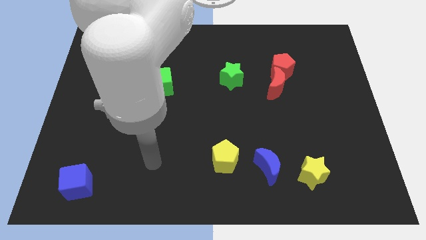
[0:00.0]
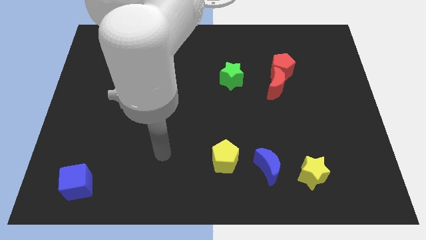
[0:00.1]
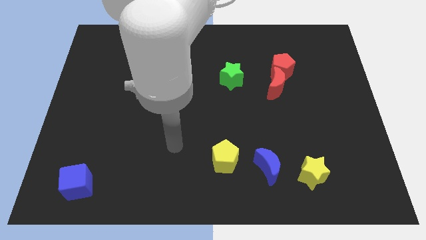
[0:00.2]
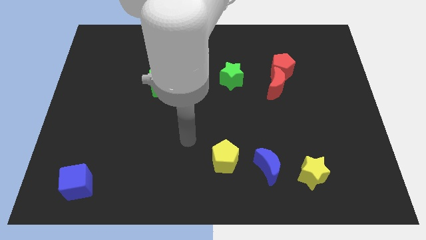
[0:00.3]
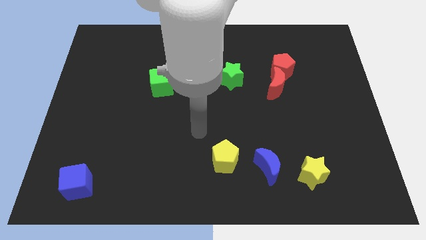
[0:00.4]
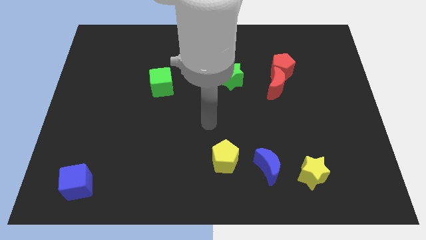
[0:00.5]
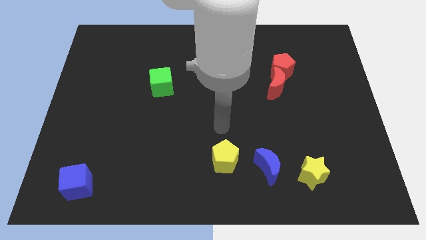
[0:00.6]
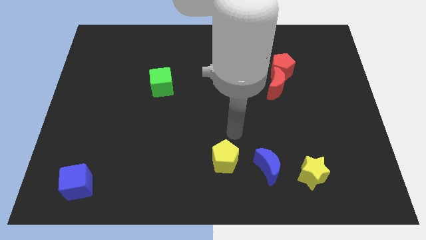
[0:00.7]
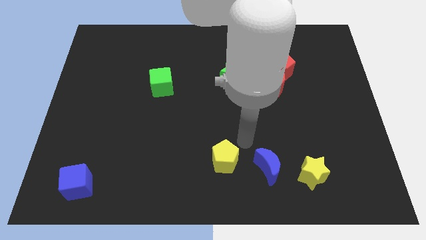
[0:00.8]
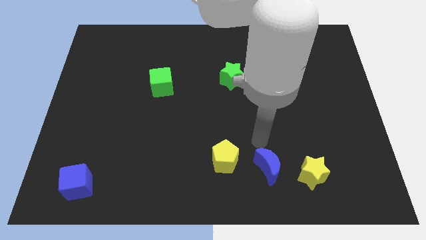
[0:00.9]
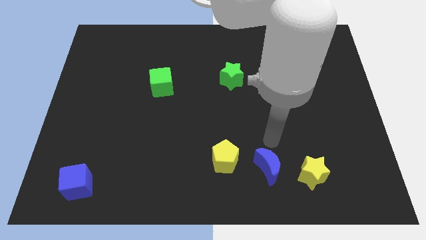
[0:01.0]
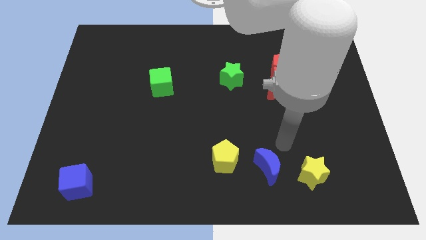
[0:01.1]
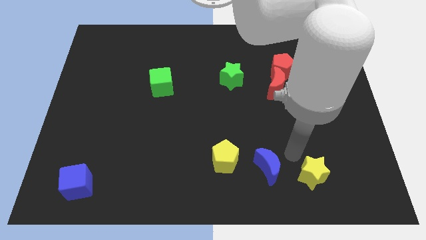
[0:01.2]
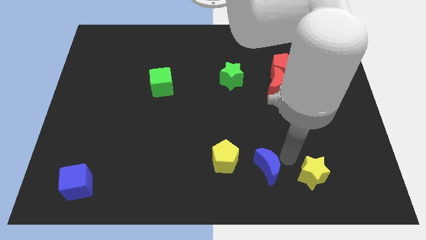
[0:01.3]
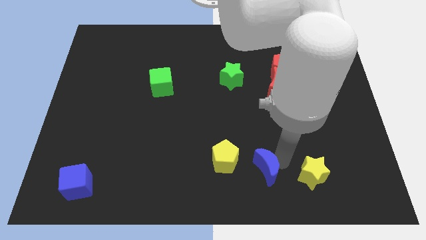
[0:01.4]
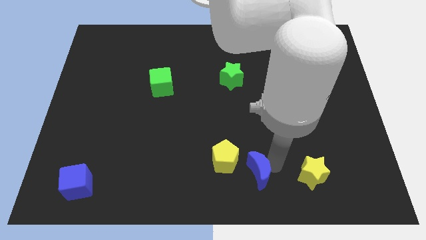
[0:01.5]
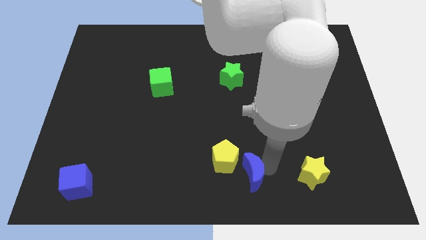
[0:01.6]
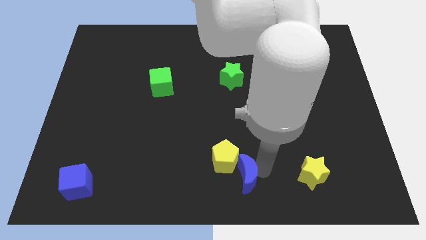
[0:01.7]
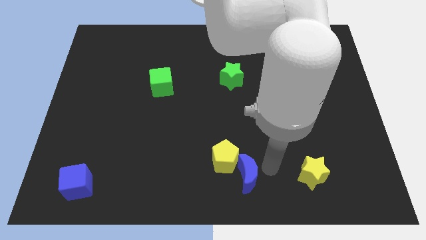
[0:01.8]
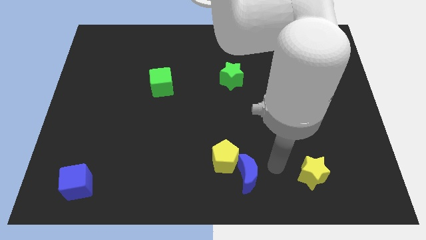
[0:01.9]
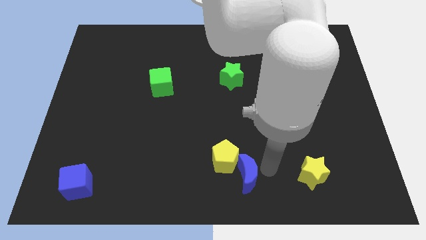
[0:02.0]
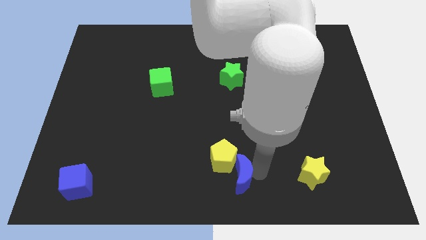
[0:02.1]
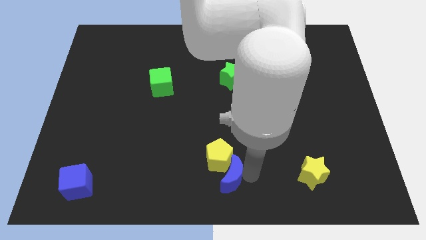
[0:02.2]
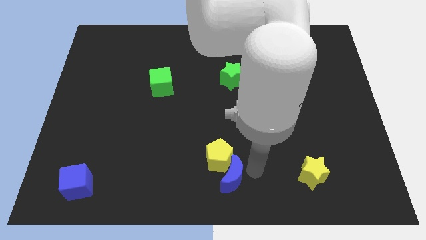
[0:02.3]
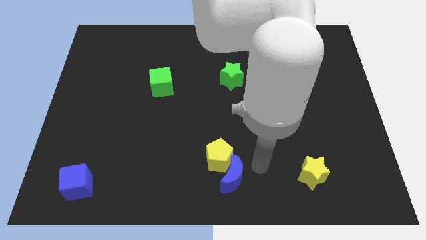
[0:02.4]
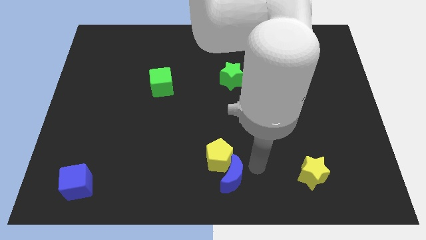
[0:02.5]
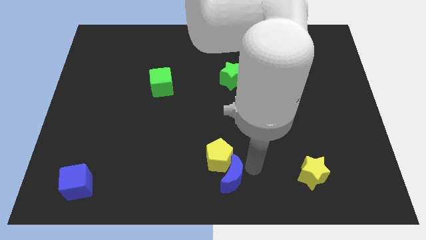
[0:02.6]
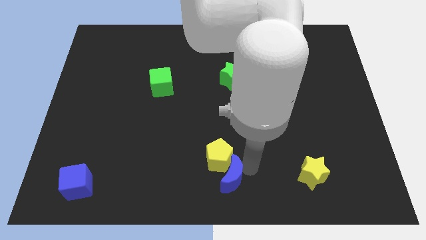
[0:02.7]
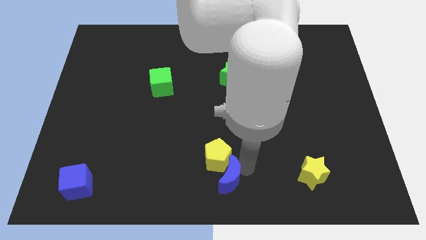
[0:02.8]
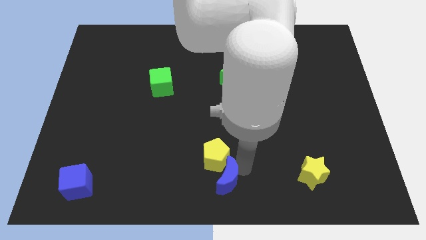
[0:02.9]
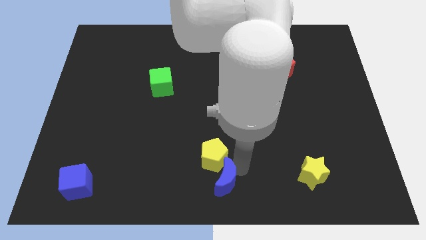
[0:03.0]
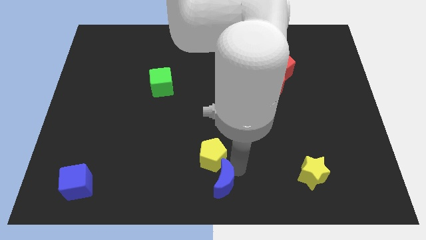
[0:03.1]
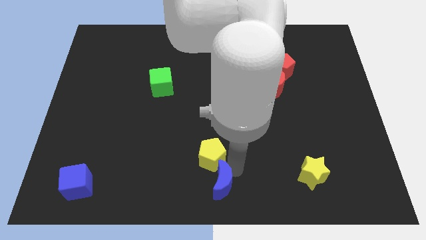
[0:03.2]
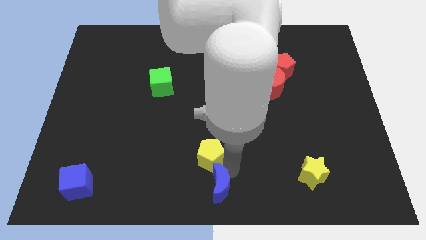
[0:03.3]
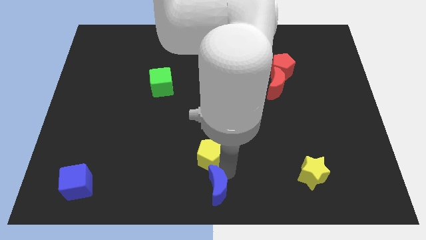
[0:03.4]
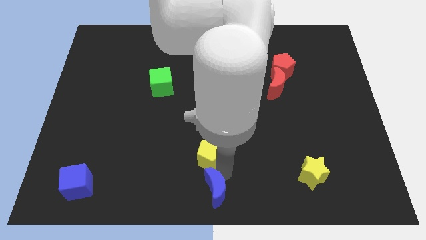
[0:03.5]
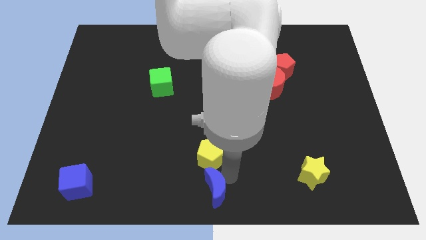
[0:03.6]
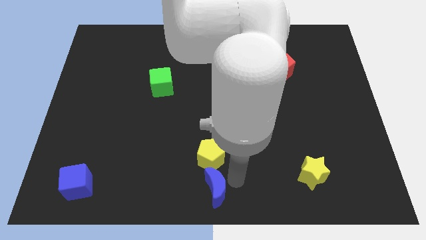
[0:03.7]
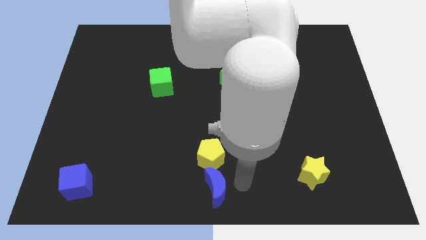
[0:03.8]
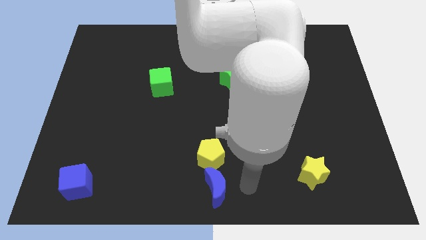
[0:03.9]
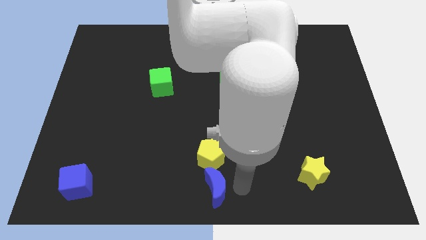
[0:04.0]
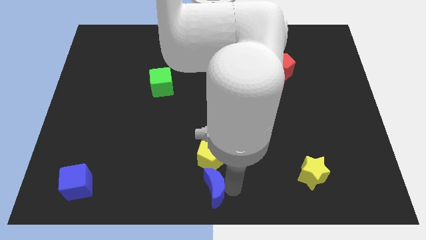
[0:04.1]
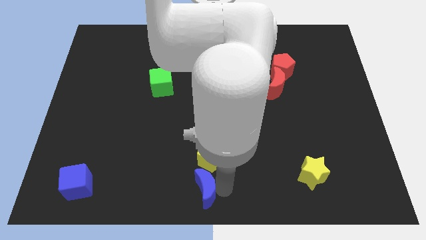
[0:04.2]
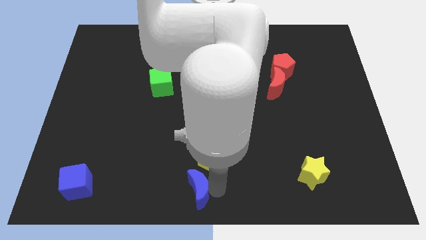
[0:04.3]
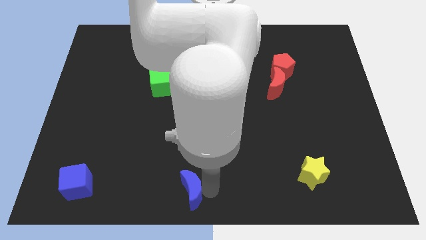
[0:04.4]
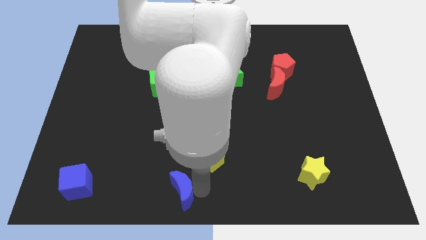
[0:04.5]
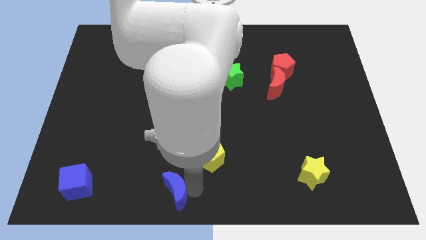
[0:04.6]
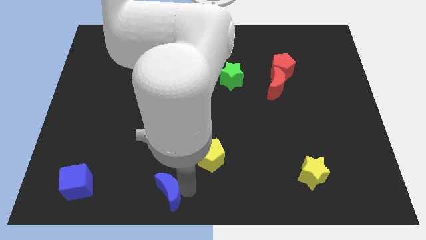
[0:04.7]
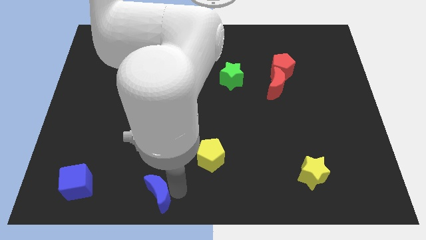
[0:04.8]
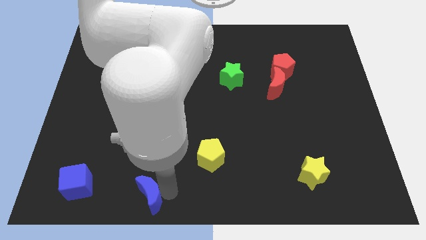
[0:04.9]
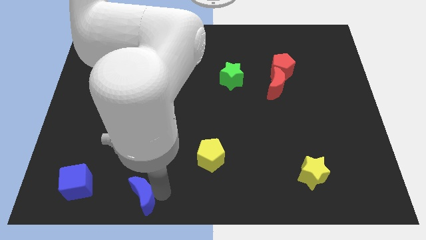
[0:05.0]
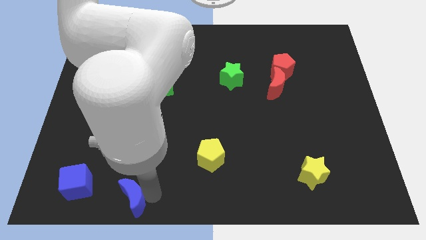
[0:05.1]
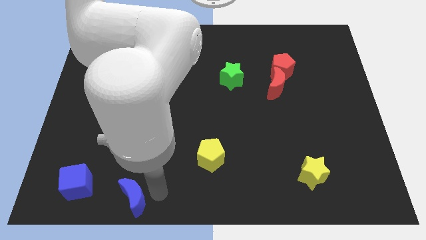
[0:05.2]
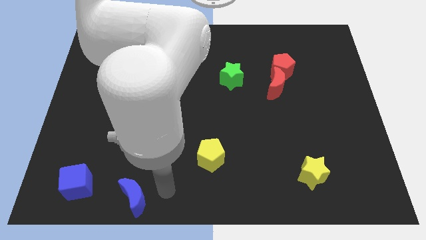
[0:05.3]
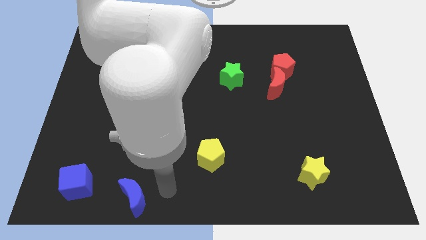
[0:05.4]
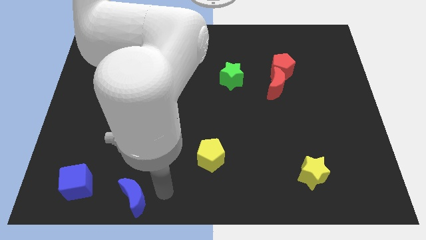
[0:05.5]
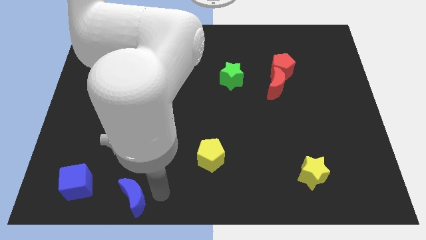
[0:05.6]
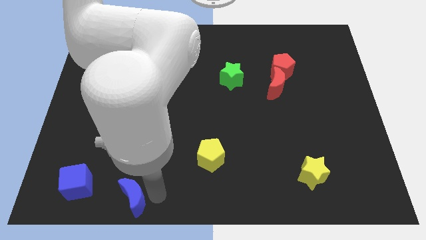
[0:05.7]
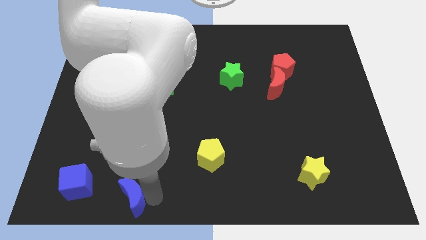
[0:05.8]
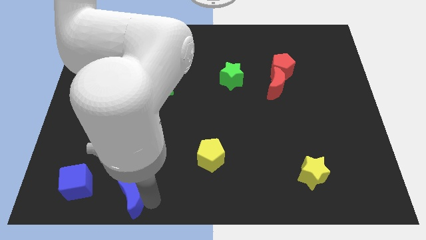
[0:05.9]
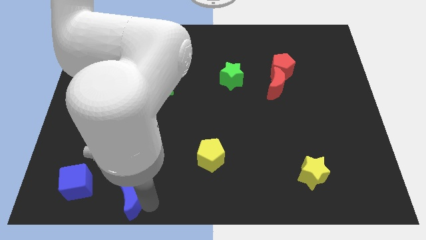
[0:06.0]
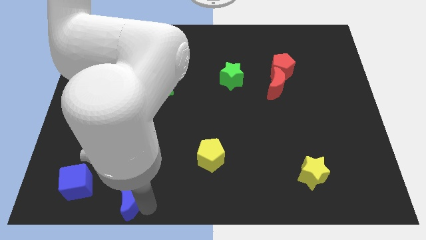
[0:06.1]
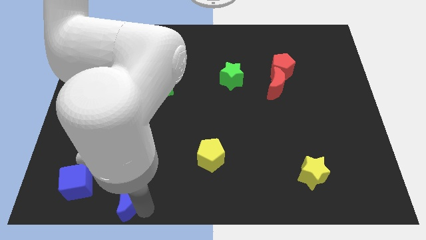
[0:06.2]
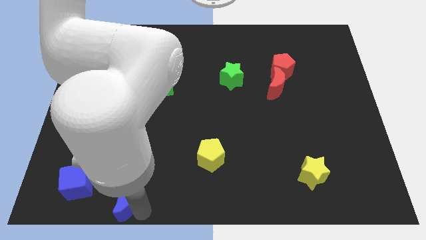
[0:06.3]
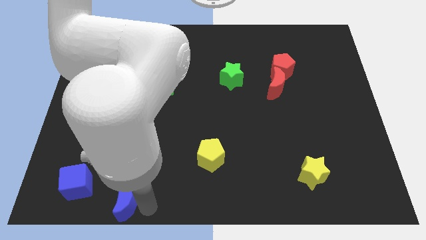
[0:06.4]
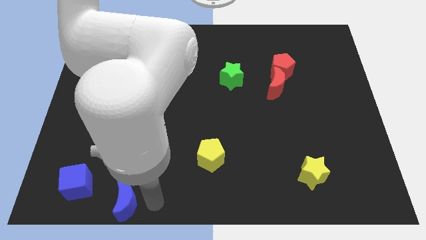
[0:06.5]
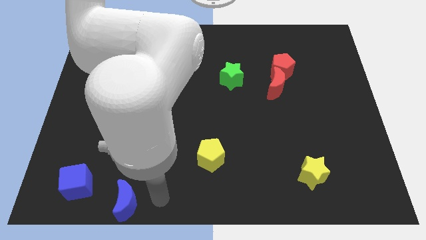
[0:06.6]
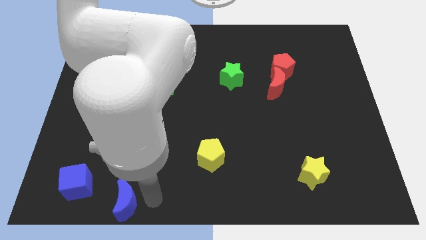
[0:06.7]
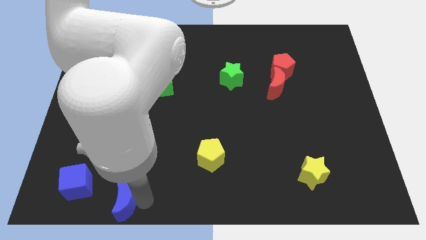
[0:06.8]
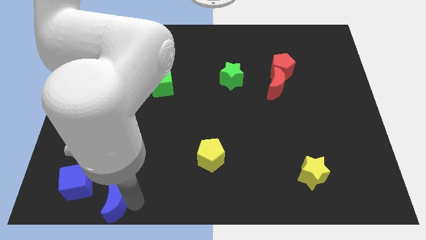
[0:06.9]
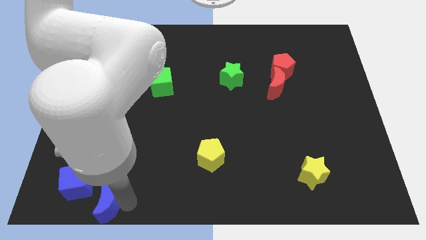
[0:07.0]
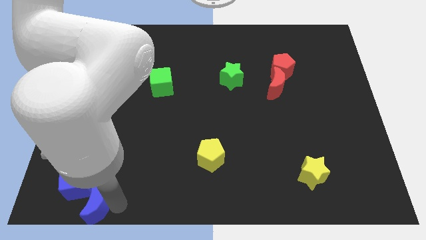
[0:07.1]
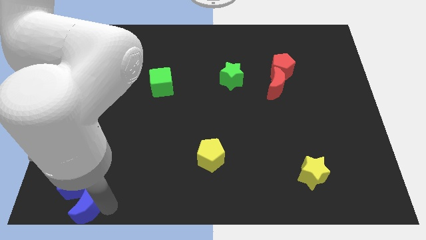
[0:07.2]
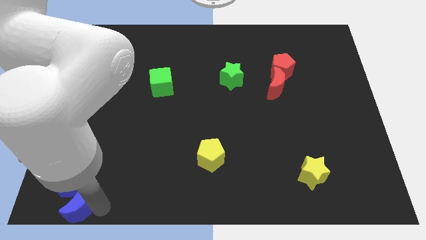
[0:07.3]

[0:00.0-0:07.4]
move the blue moon to the lower left corner
